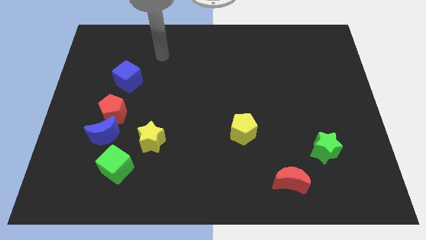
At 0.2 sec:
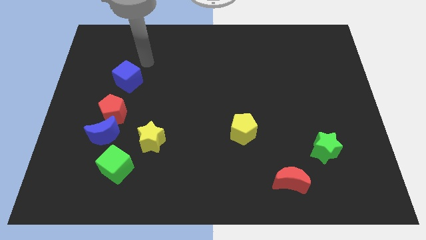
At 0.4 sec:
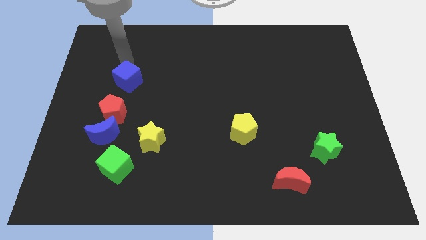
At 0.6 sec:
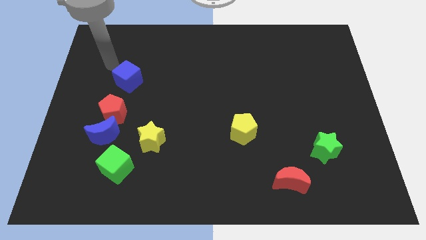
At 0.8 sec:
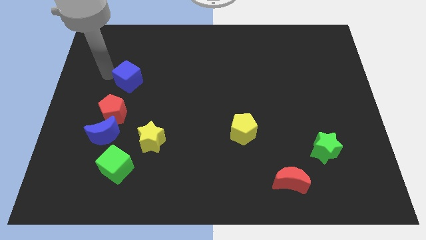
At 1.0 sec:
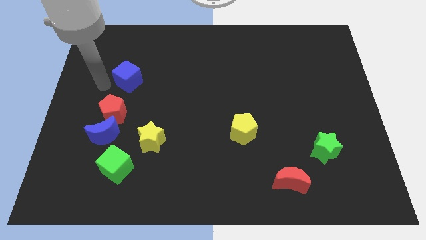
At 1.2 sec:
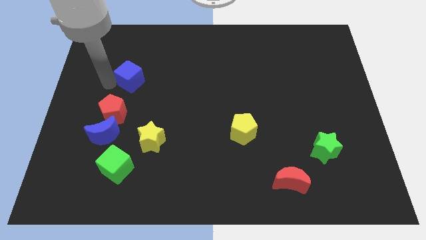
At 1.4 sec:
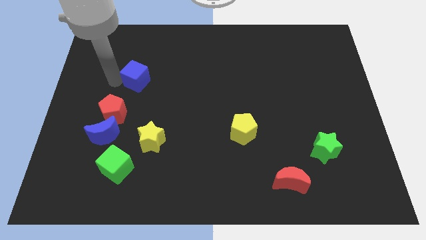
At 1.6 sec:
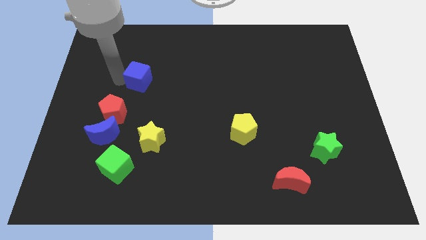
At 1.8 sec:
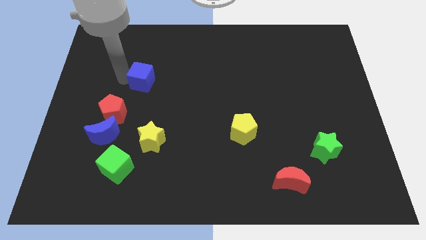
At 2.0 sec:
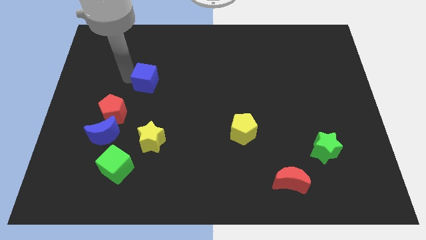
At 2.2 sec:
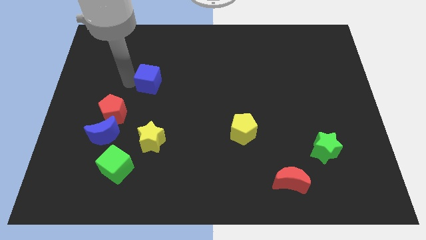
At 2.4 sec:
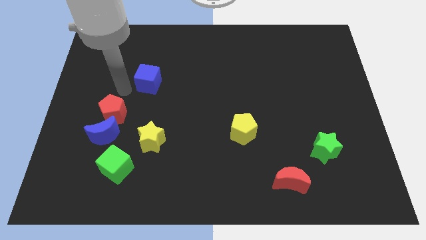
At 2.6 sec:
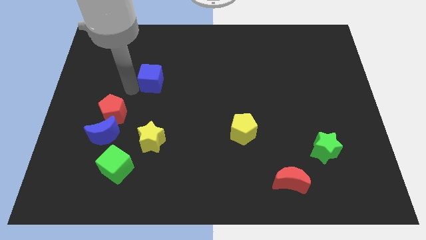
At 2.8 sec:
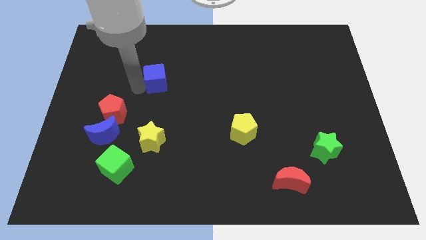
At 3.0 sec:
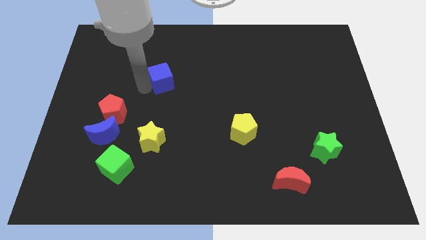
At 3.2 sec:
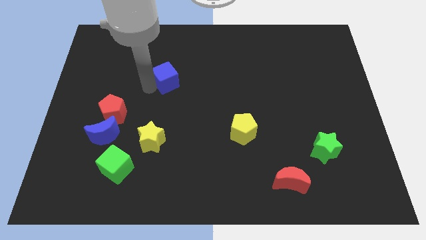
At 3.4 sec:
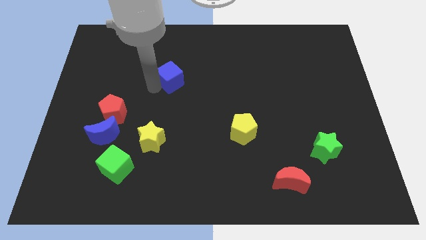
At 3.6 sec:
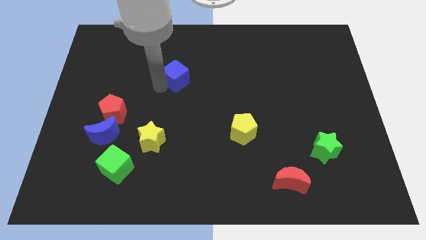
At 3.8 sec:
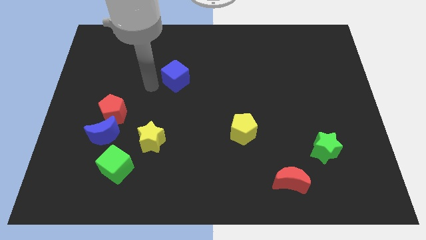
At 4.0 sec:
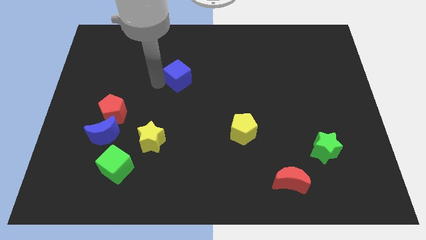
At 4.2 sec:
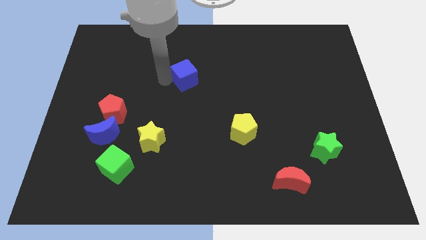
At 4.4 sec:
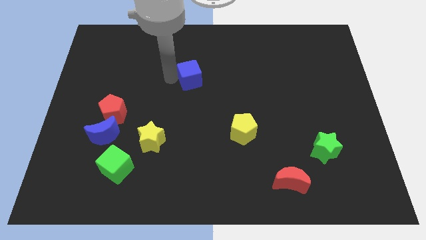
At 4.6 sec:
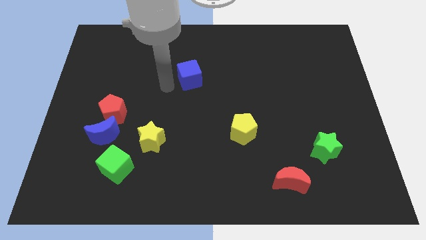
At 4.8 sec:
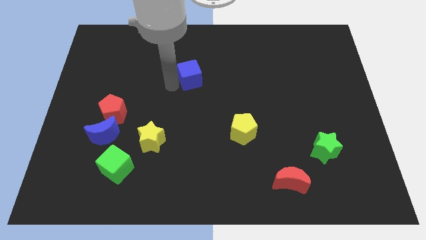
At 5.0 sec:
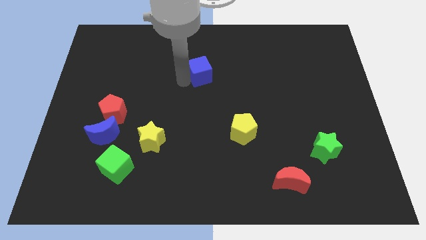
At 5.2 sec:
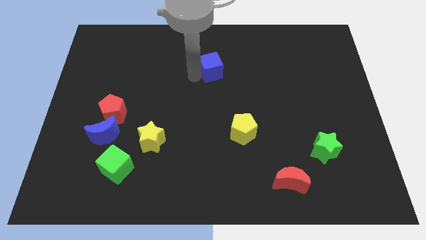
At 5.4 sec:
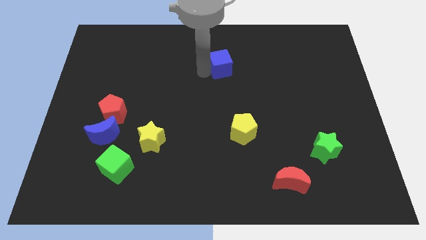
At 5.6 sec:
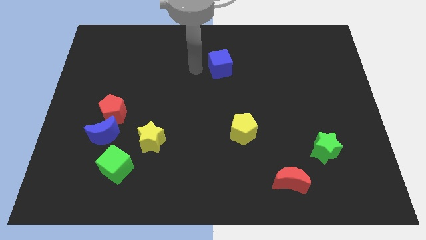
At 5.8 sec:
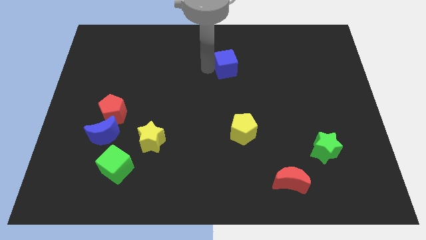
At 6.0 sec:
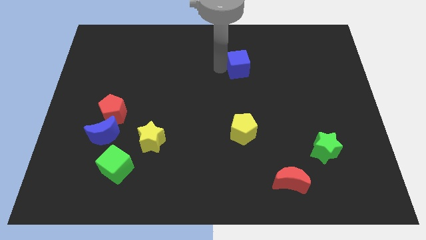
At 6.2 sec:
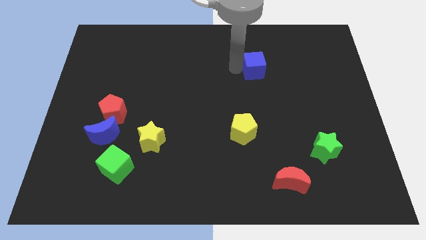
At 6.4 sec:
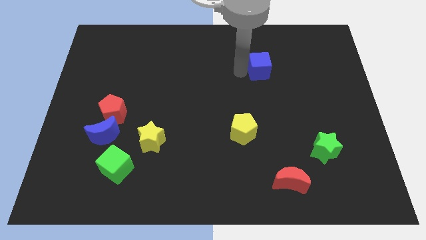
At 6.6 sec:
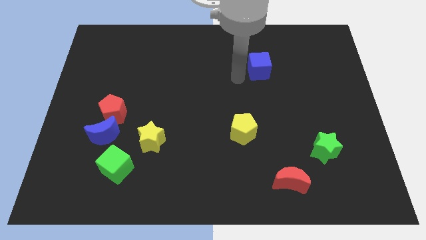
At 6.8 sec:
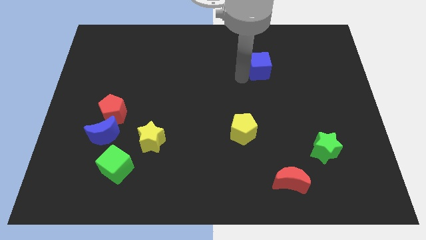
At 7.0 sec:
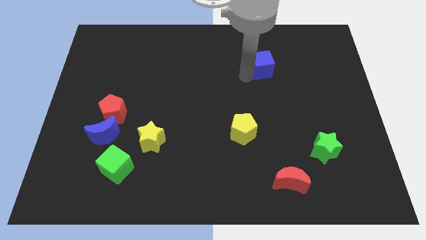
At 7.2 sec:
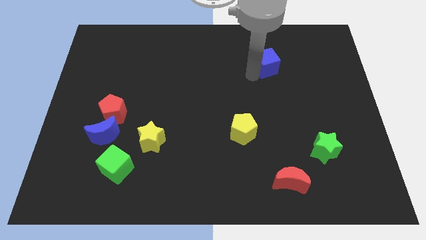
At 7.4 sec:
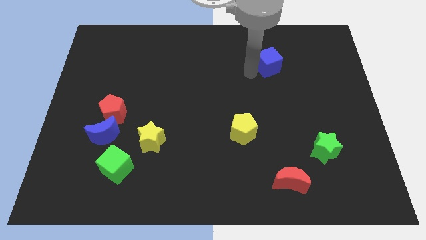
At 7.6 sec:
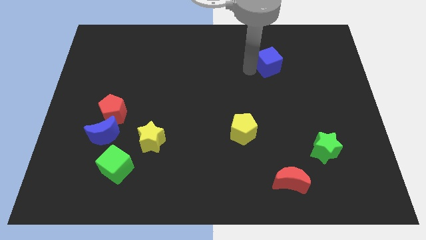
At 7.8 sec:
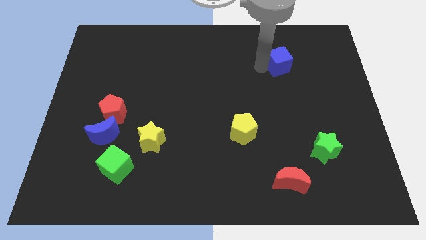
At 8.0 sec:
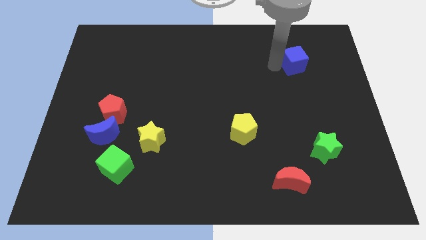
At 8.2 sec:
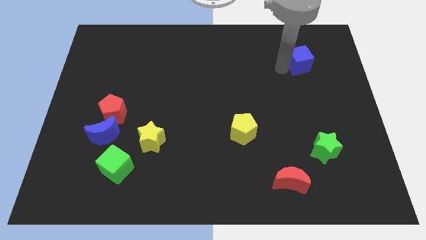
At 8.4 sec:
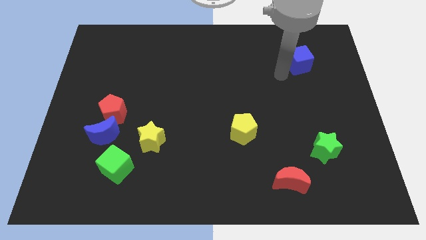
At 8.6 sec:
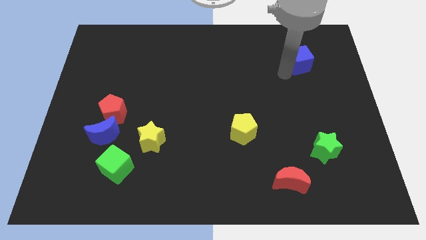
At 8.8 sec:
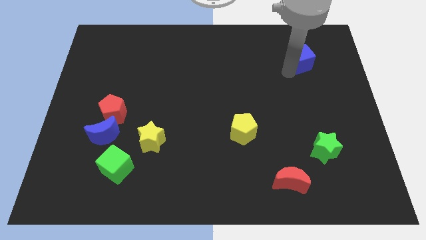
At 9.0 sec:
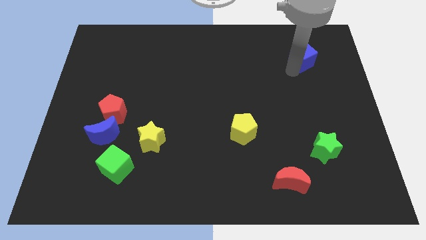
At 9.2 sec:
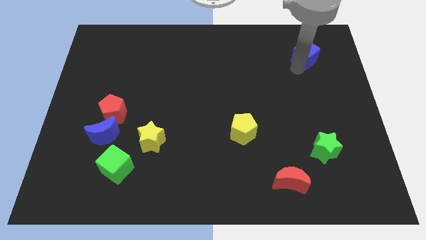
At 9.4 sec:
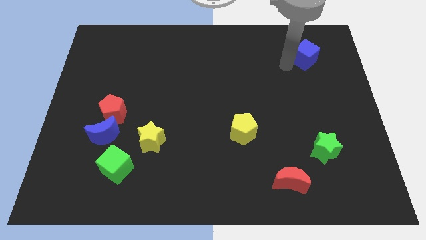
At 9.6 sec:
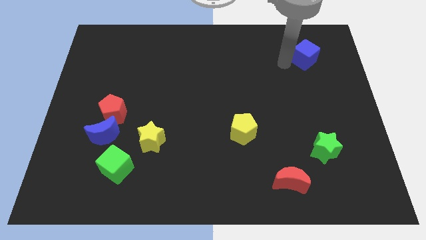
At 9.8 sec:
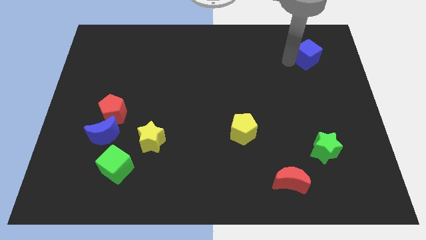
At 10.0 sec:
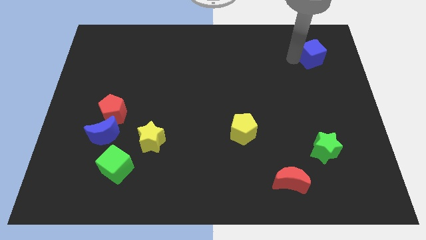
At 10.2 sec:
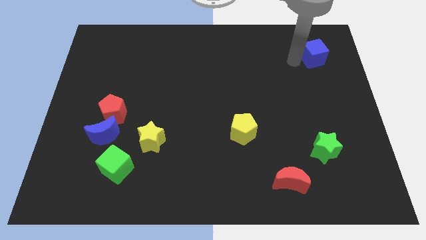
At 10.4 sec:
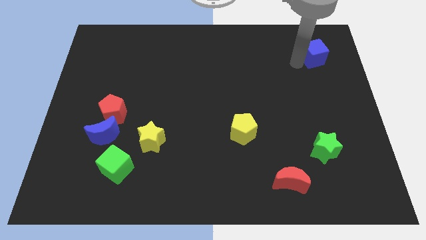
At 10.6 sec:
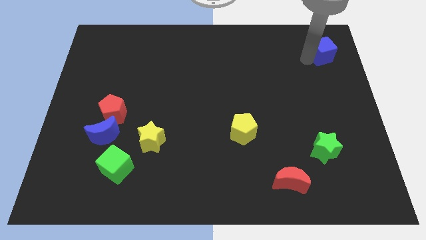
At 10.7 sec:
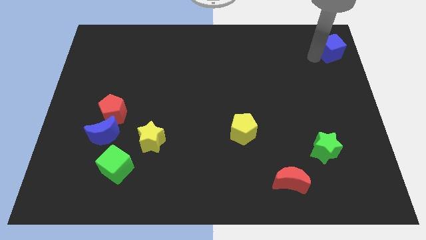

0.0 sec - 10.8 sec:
move the blue cube to the top right of the board

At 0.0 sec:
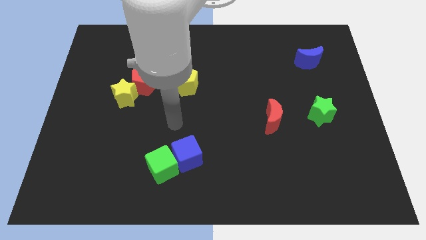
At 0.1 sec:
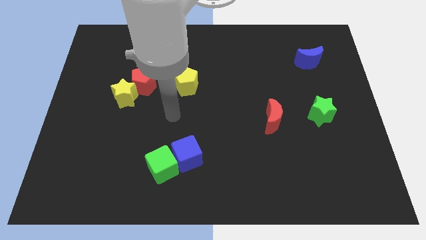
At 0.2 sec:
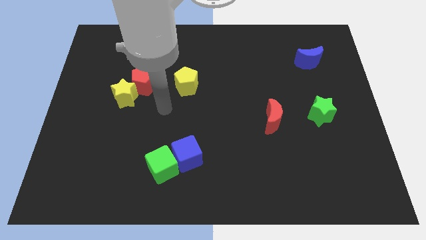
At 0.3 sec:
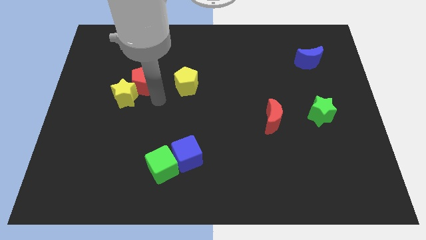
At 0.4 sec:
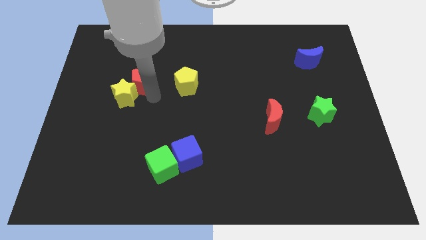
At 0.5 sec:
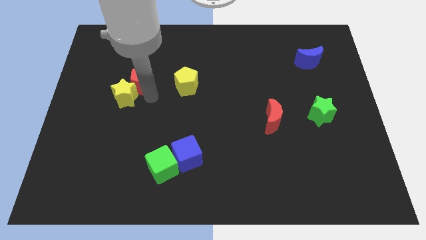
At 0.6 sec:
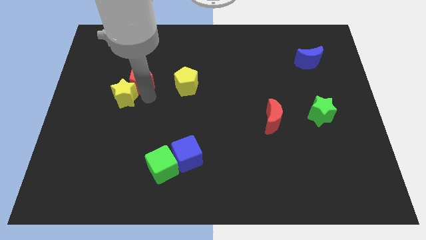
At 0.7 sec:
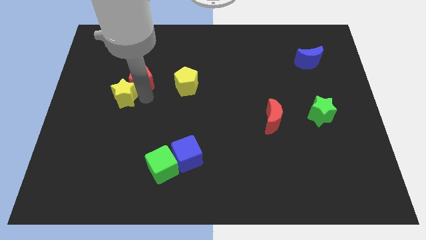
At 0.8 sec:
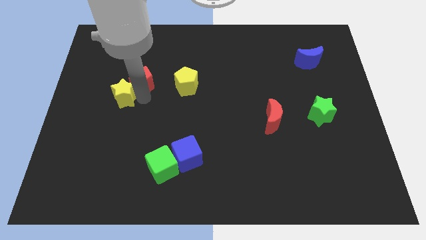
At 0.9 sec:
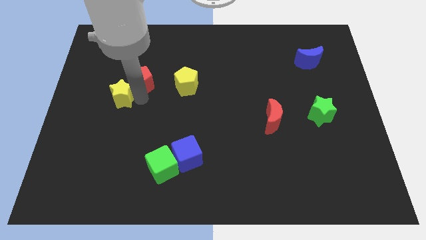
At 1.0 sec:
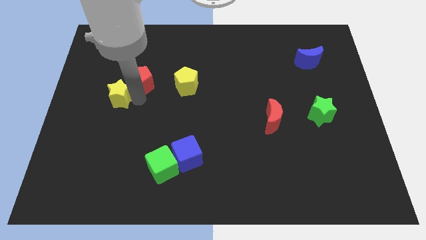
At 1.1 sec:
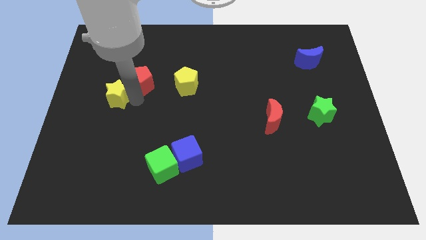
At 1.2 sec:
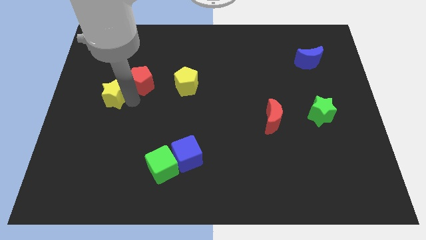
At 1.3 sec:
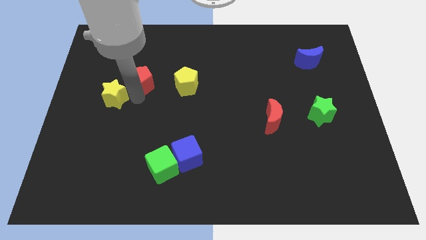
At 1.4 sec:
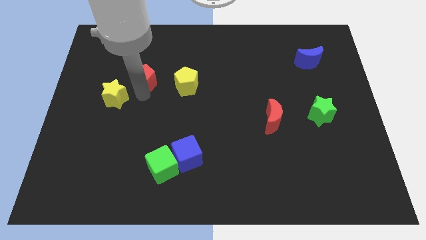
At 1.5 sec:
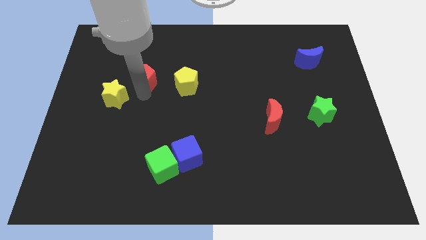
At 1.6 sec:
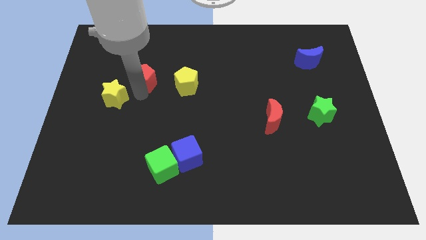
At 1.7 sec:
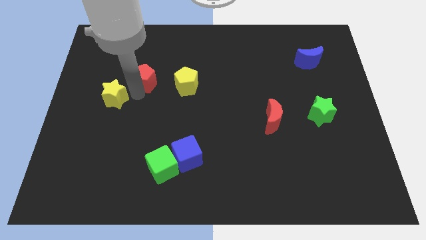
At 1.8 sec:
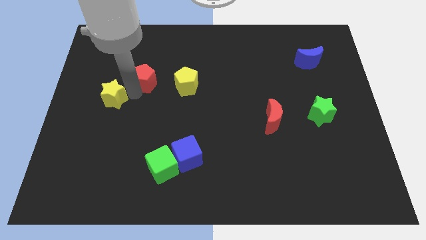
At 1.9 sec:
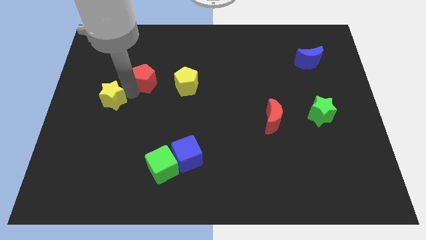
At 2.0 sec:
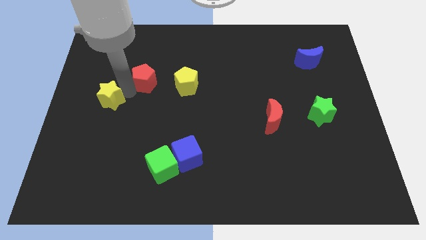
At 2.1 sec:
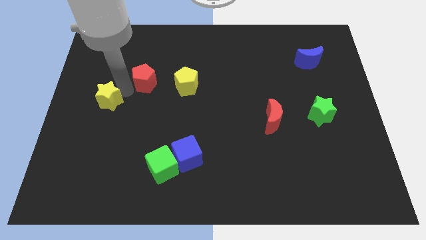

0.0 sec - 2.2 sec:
slide the yellow star to the left side
